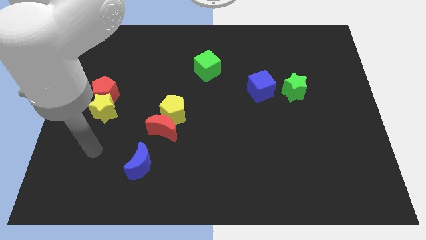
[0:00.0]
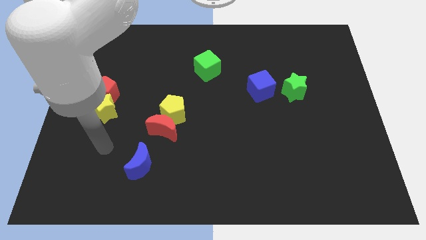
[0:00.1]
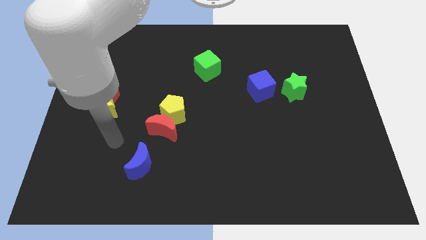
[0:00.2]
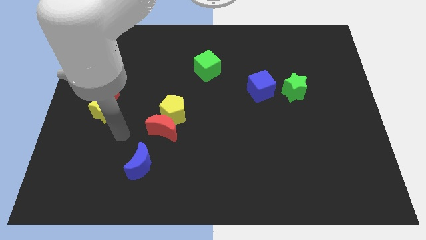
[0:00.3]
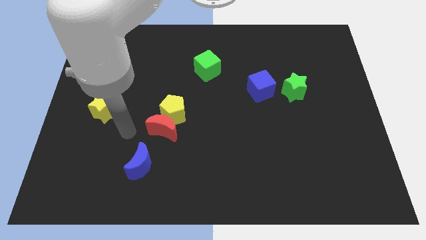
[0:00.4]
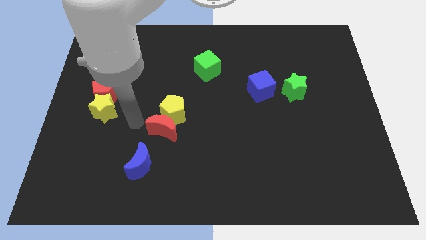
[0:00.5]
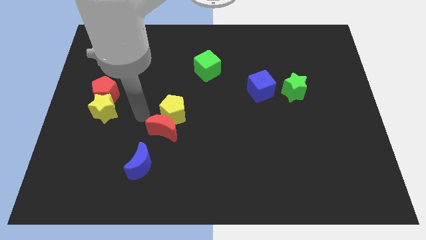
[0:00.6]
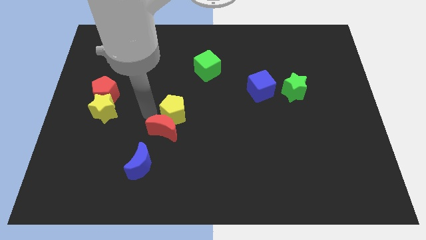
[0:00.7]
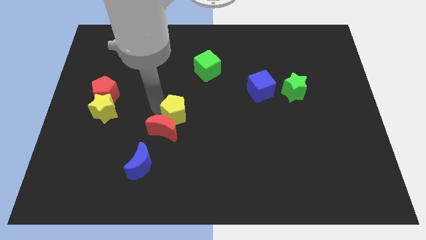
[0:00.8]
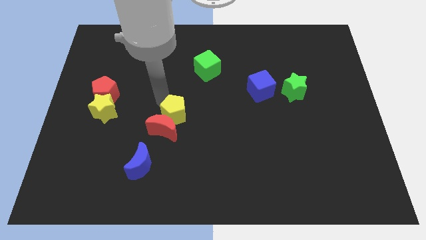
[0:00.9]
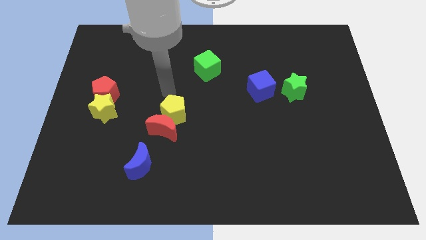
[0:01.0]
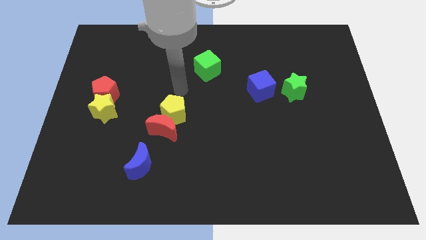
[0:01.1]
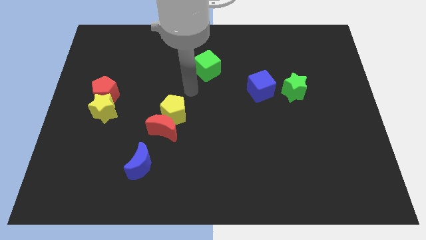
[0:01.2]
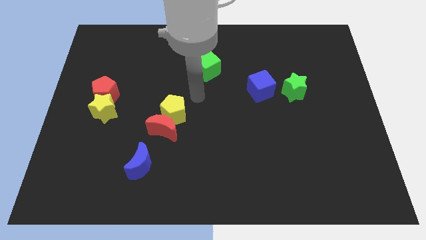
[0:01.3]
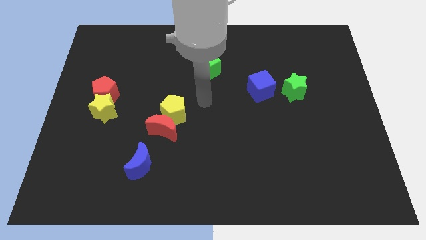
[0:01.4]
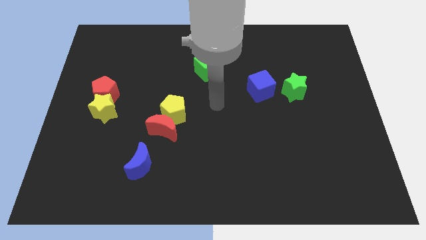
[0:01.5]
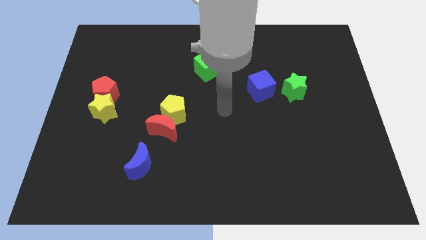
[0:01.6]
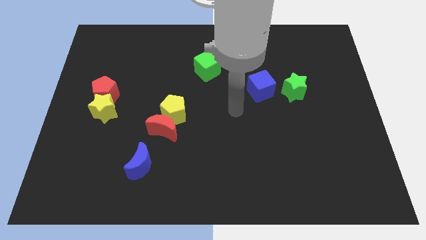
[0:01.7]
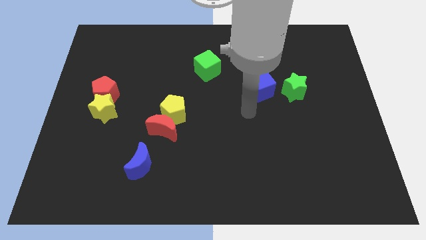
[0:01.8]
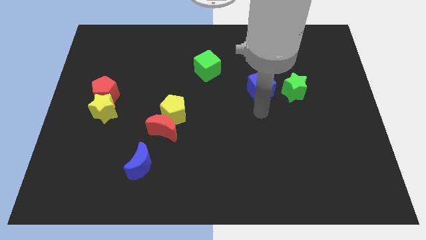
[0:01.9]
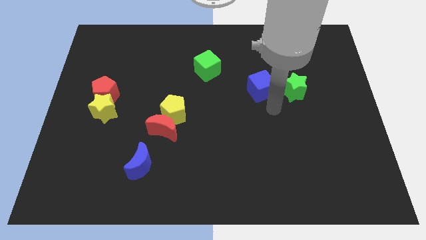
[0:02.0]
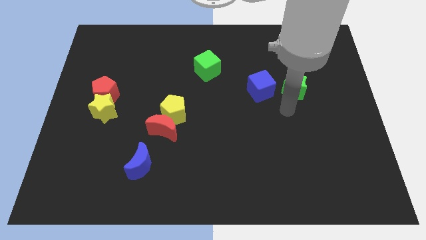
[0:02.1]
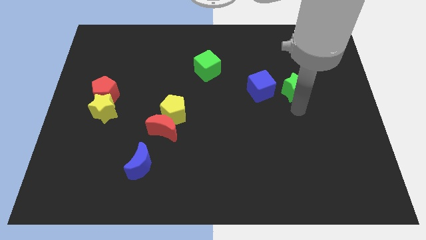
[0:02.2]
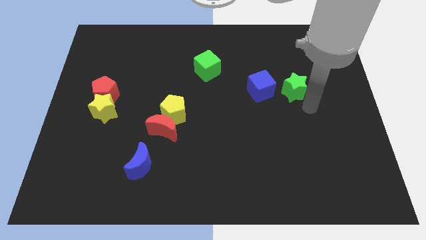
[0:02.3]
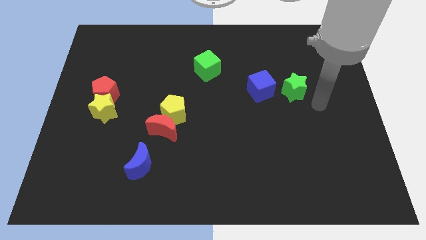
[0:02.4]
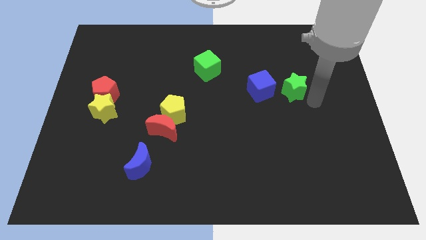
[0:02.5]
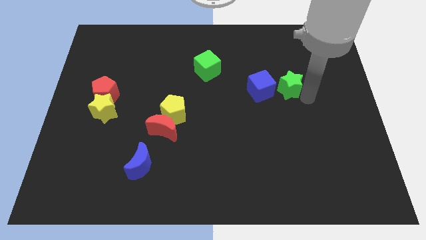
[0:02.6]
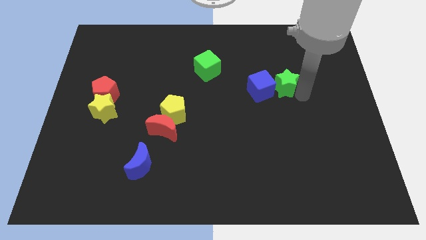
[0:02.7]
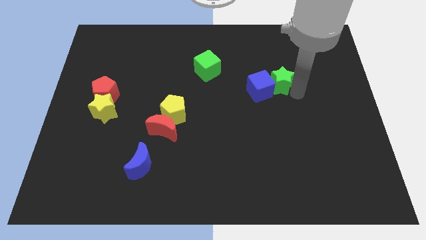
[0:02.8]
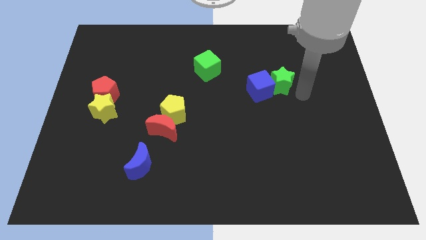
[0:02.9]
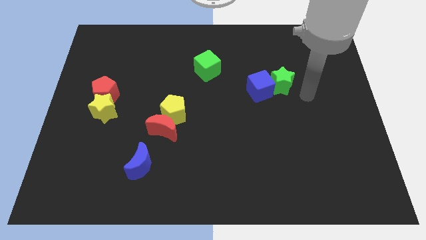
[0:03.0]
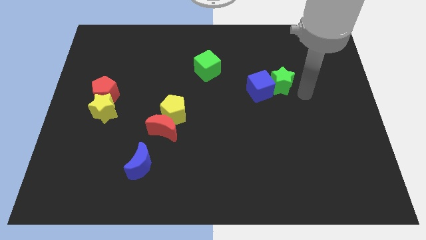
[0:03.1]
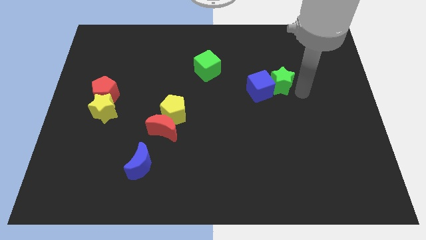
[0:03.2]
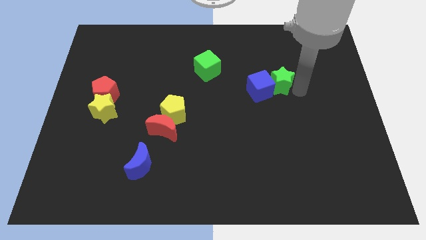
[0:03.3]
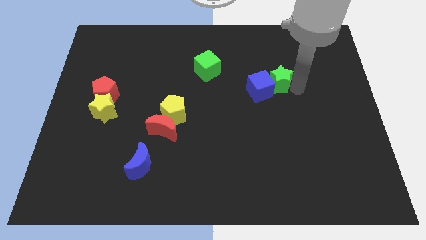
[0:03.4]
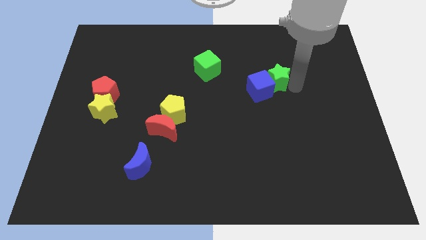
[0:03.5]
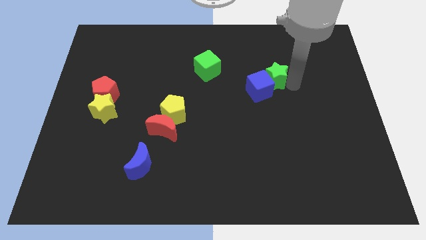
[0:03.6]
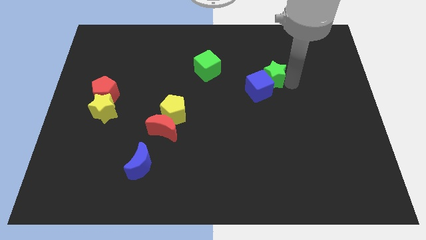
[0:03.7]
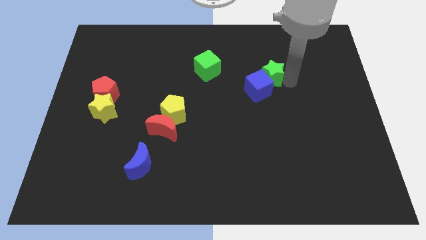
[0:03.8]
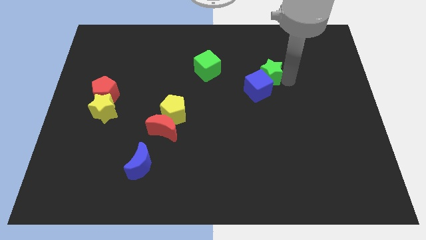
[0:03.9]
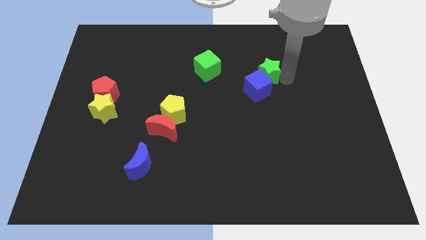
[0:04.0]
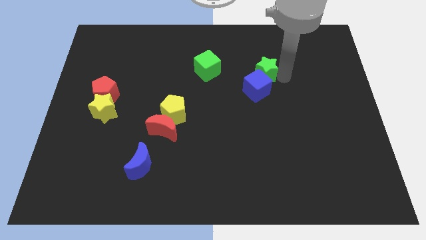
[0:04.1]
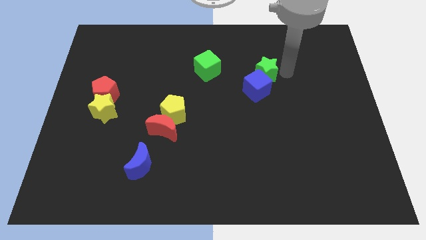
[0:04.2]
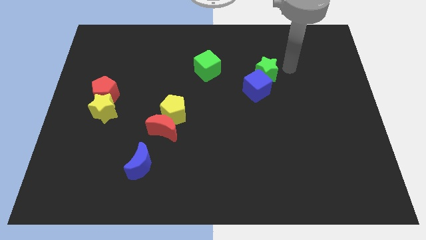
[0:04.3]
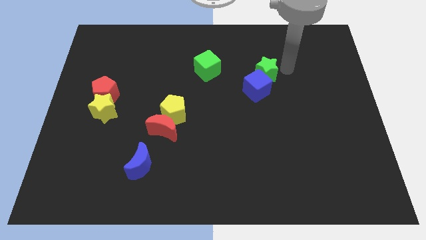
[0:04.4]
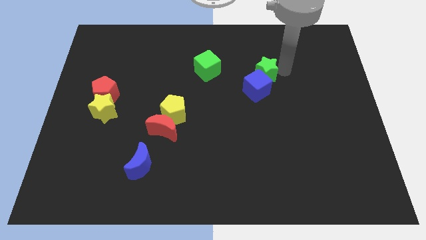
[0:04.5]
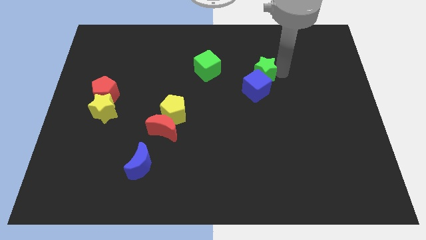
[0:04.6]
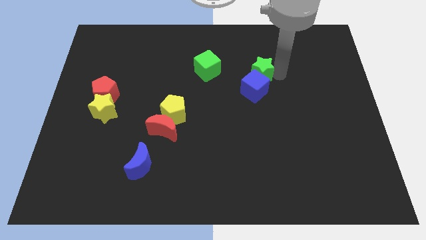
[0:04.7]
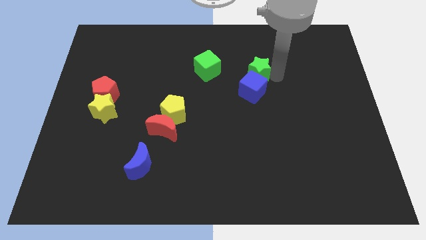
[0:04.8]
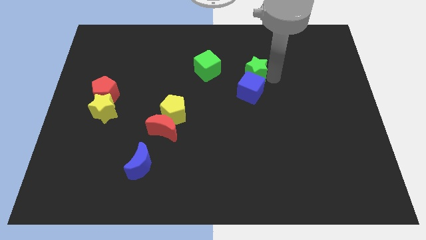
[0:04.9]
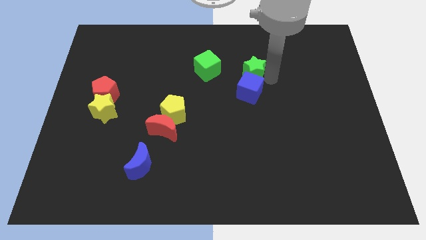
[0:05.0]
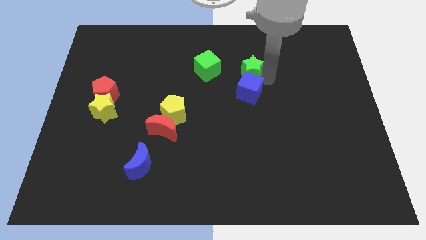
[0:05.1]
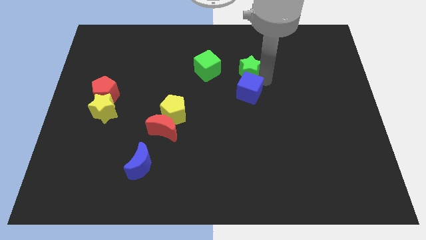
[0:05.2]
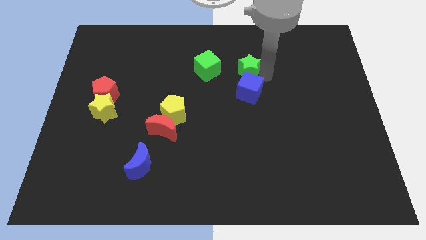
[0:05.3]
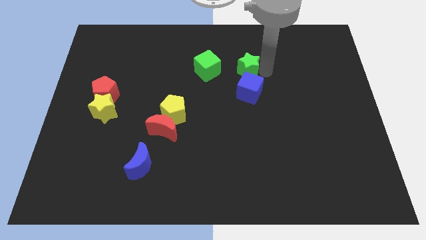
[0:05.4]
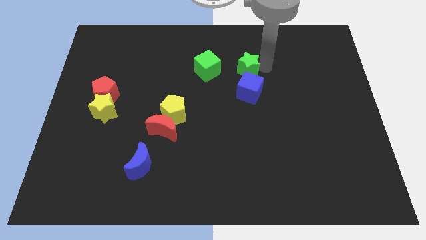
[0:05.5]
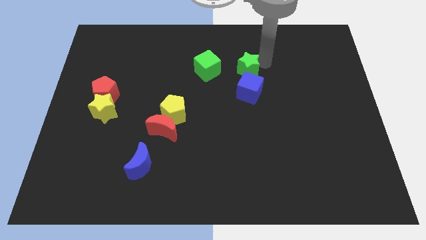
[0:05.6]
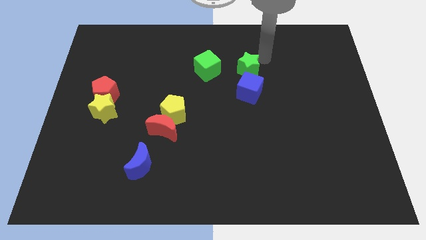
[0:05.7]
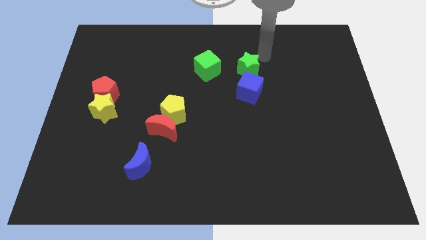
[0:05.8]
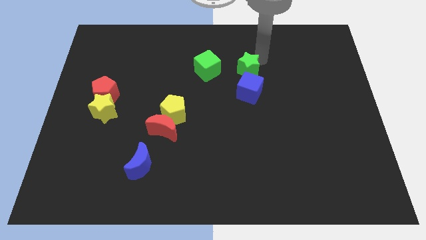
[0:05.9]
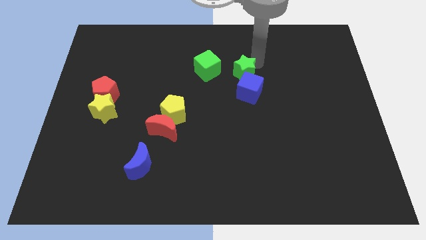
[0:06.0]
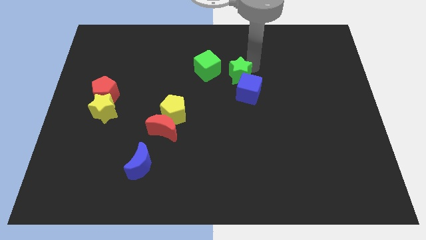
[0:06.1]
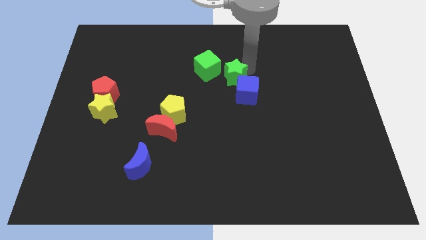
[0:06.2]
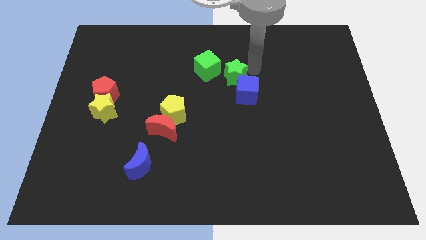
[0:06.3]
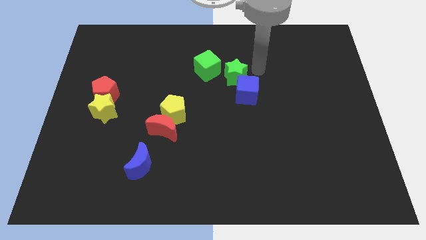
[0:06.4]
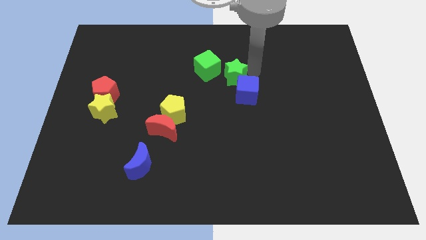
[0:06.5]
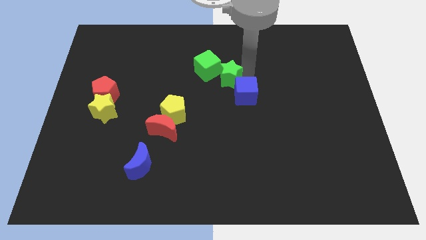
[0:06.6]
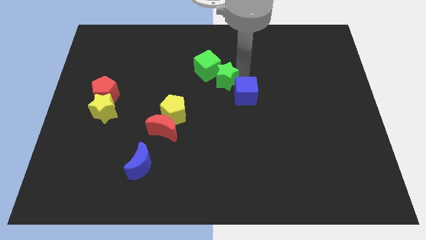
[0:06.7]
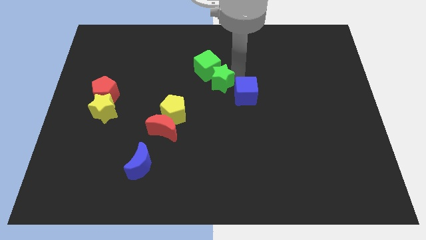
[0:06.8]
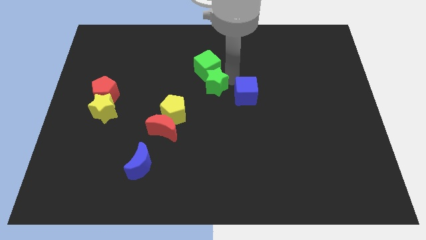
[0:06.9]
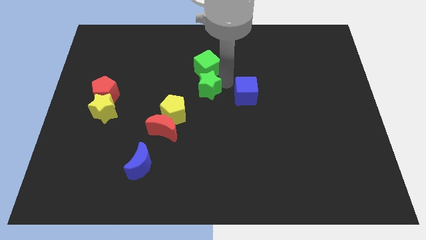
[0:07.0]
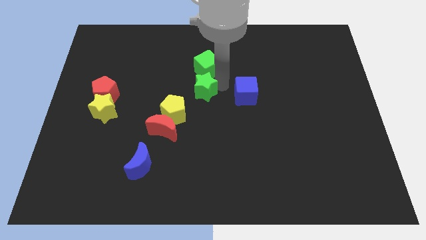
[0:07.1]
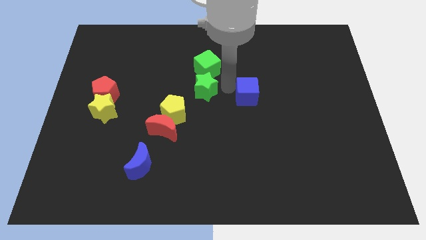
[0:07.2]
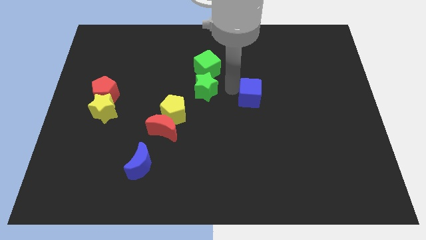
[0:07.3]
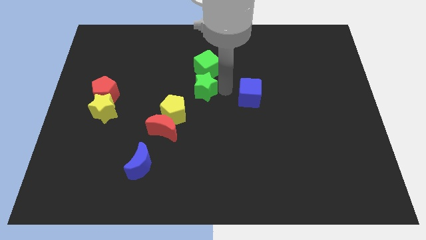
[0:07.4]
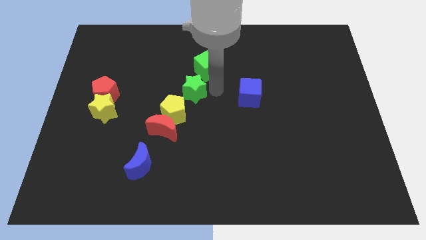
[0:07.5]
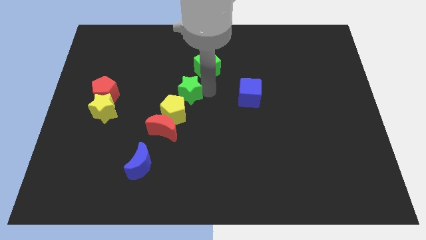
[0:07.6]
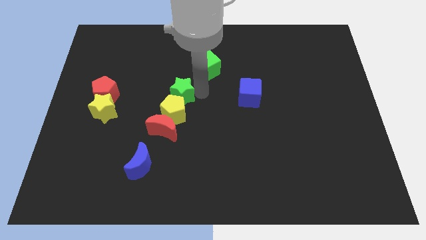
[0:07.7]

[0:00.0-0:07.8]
move the green star to the top of the red moon
